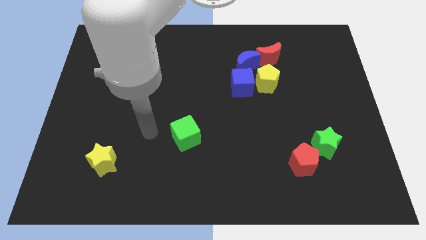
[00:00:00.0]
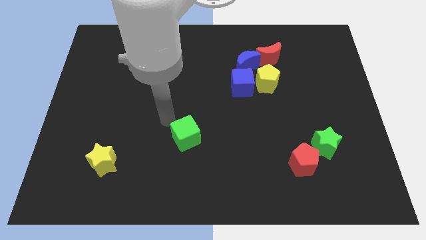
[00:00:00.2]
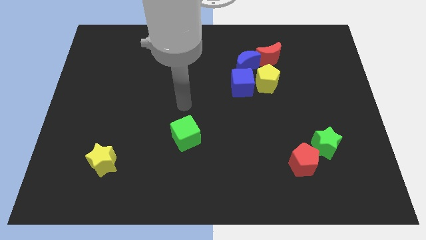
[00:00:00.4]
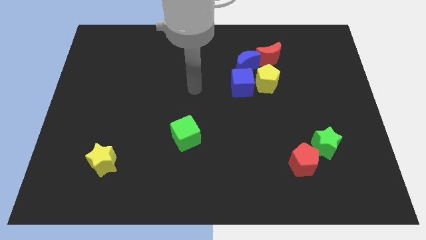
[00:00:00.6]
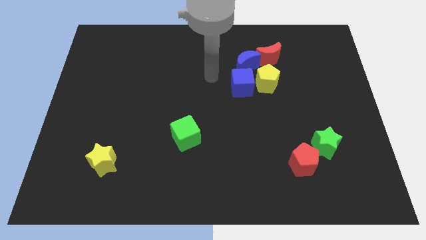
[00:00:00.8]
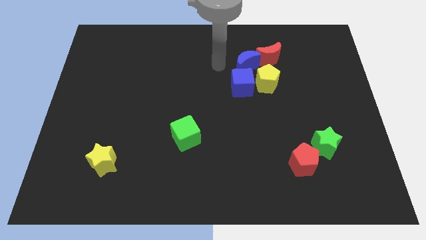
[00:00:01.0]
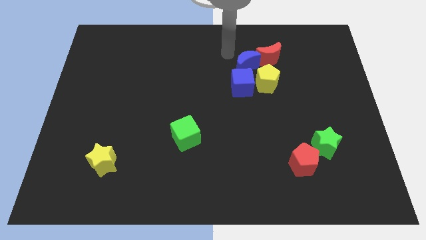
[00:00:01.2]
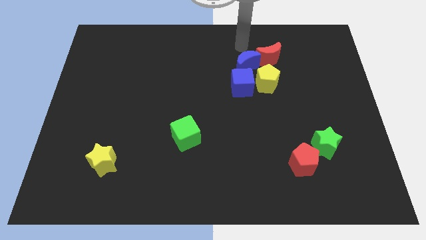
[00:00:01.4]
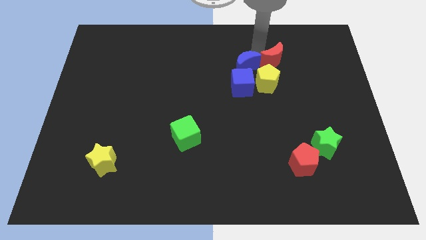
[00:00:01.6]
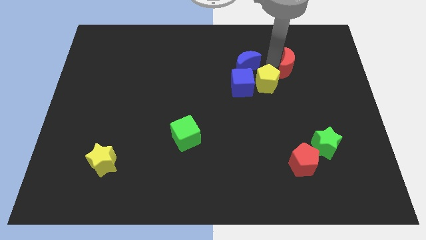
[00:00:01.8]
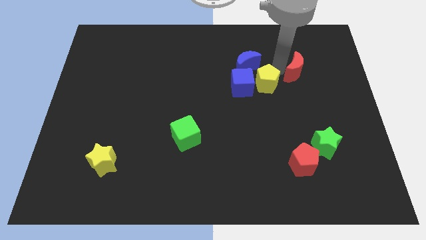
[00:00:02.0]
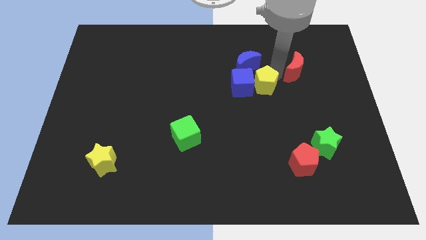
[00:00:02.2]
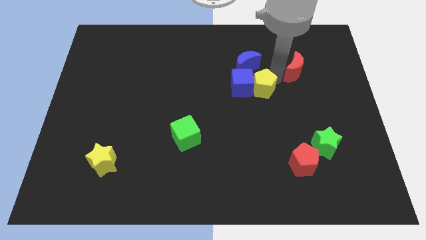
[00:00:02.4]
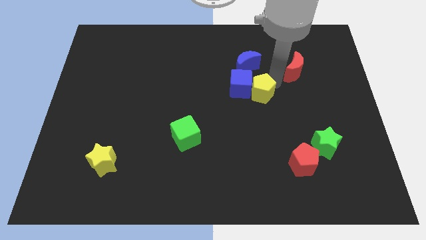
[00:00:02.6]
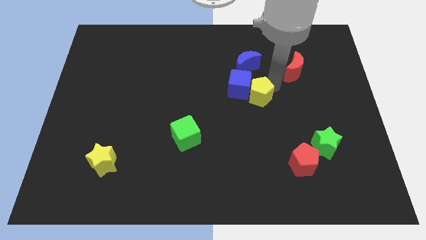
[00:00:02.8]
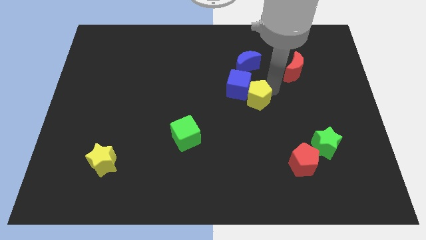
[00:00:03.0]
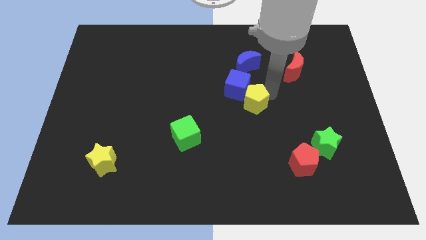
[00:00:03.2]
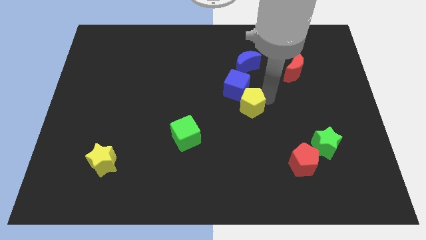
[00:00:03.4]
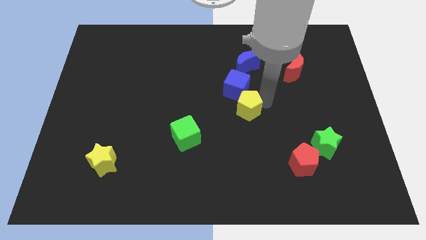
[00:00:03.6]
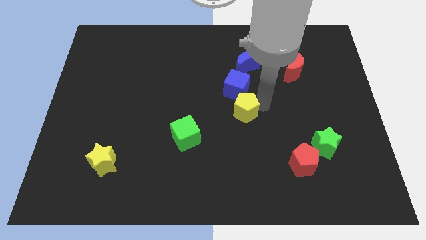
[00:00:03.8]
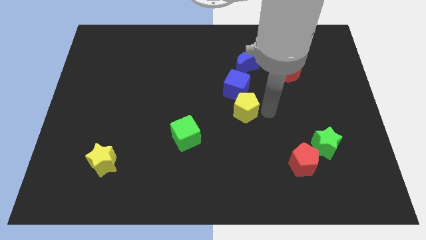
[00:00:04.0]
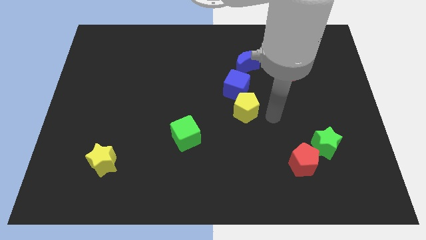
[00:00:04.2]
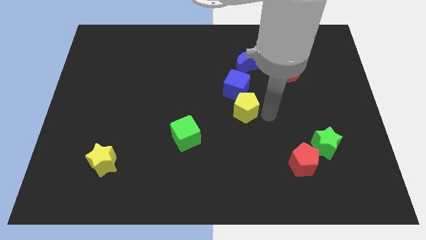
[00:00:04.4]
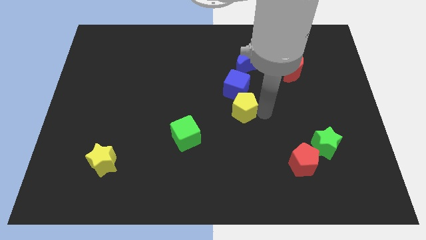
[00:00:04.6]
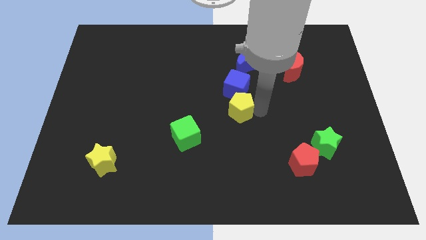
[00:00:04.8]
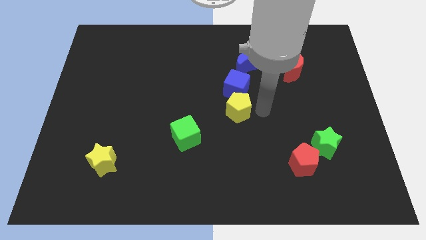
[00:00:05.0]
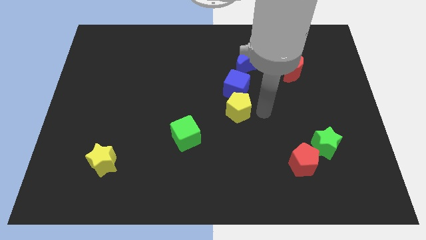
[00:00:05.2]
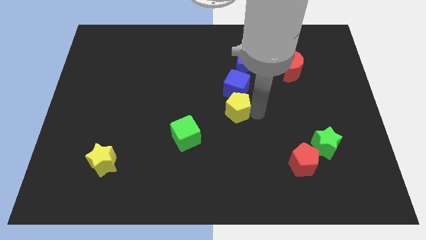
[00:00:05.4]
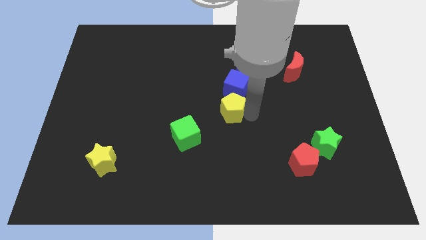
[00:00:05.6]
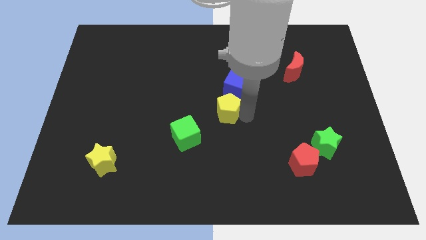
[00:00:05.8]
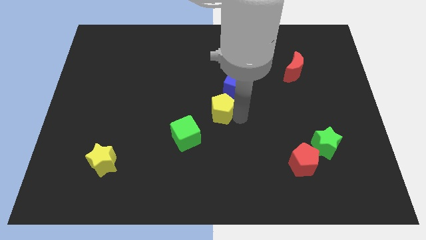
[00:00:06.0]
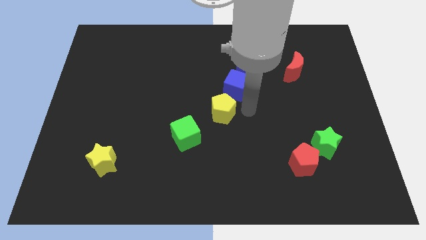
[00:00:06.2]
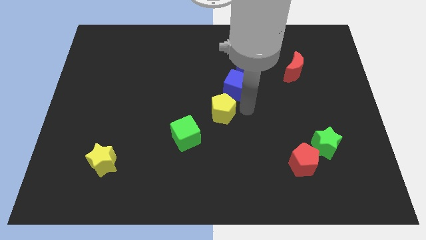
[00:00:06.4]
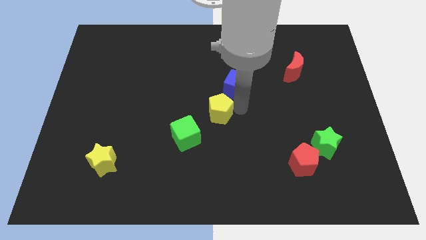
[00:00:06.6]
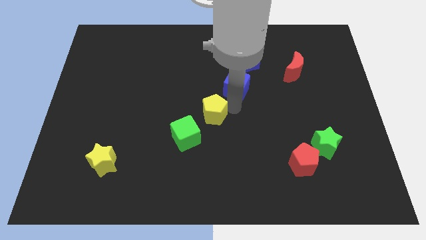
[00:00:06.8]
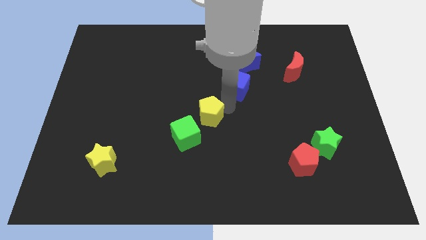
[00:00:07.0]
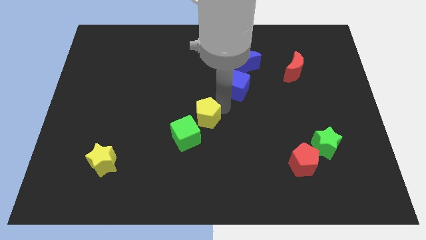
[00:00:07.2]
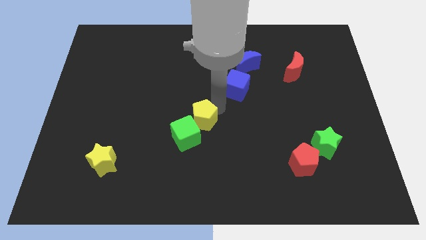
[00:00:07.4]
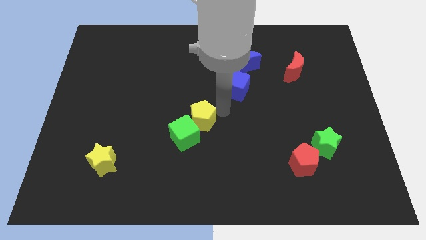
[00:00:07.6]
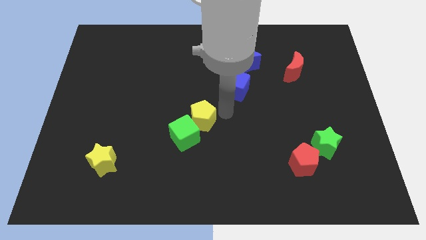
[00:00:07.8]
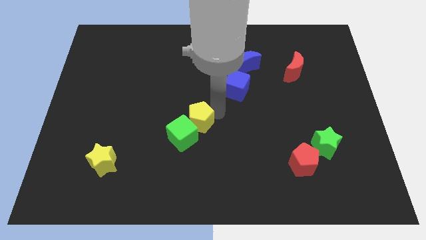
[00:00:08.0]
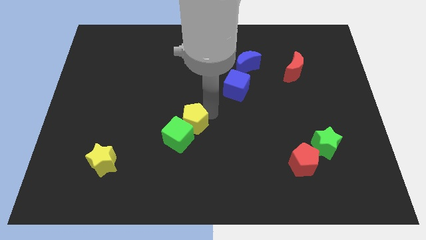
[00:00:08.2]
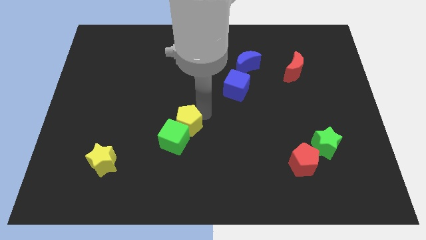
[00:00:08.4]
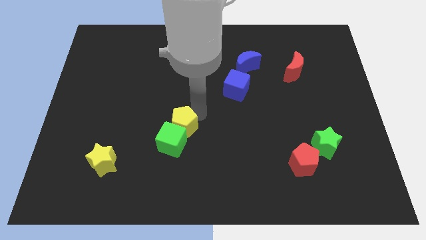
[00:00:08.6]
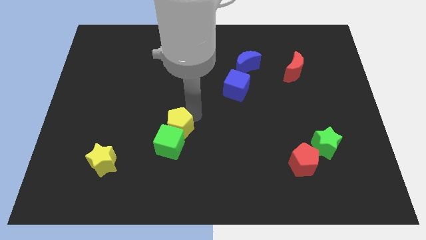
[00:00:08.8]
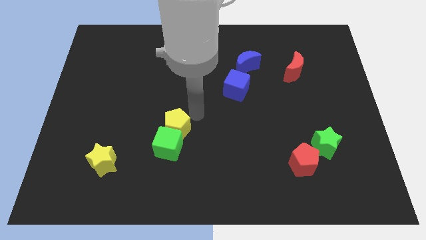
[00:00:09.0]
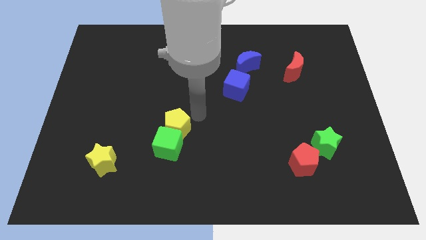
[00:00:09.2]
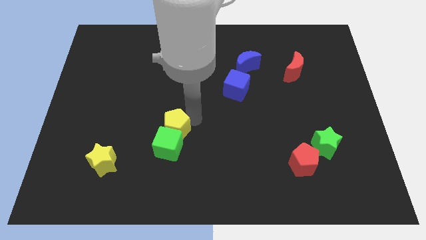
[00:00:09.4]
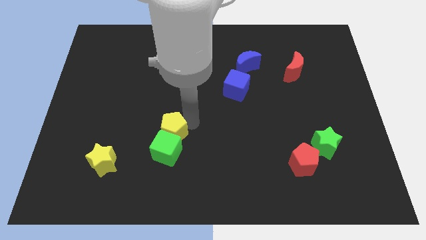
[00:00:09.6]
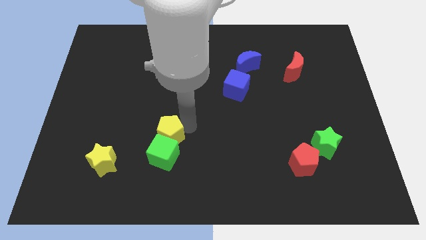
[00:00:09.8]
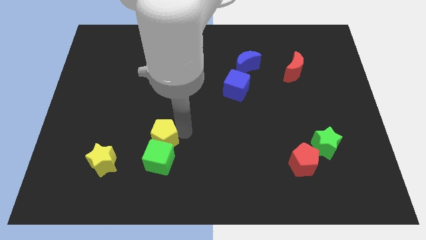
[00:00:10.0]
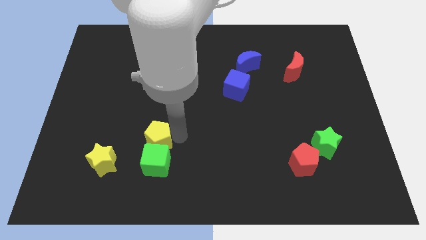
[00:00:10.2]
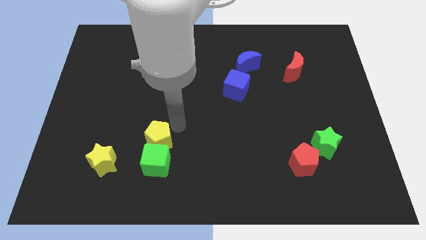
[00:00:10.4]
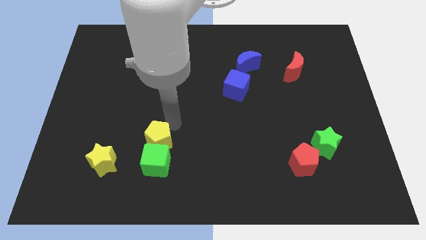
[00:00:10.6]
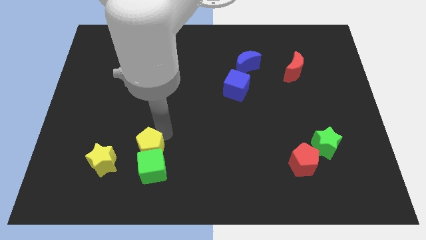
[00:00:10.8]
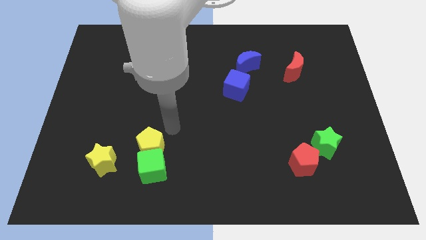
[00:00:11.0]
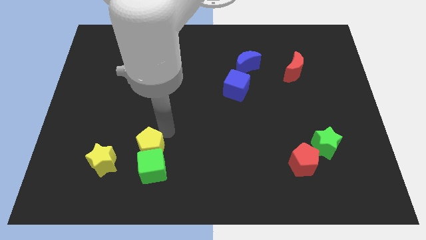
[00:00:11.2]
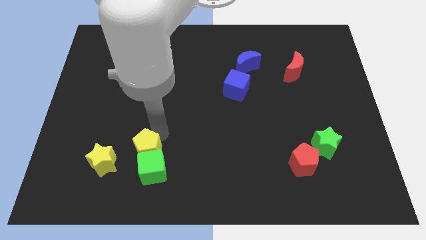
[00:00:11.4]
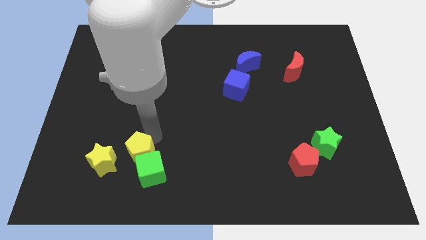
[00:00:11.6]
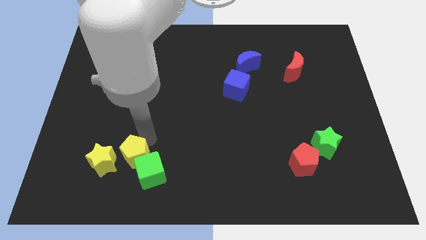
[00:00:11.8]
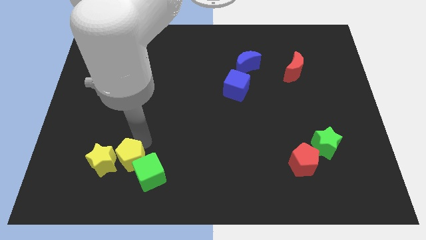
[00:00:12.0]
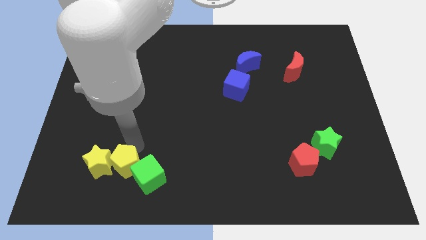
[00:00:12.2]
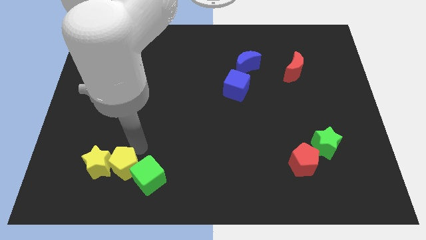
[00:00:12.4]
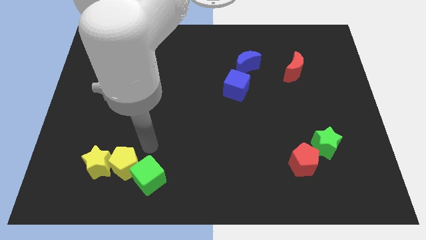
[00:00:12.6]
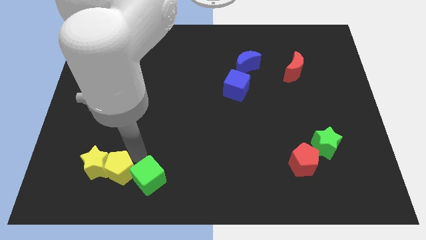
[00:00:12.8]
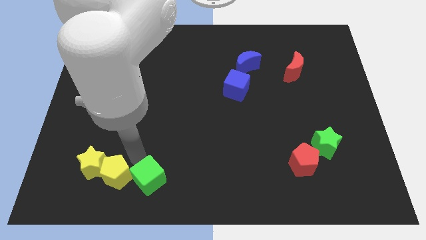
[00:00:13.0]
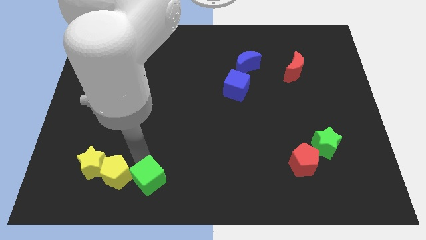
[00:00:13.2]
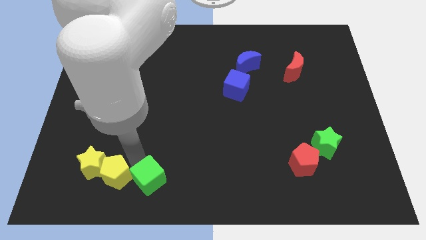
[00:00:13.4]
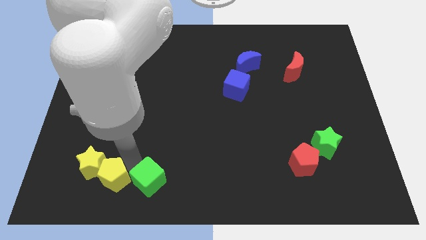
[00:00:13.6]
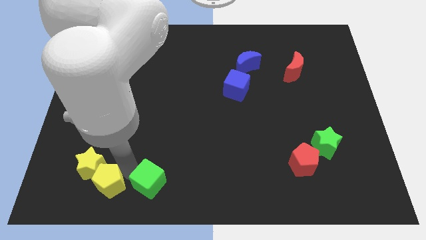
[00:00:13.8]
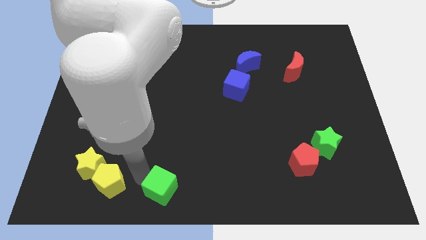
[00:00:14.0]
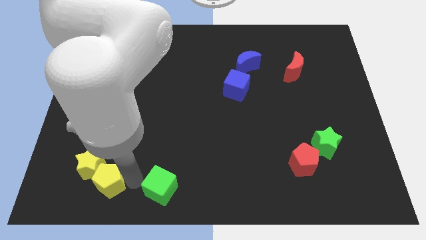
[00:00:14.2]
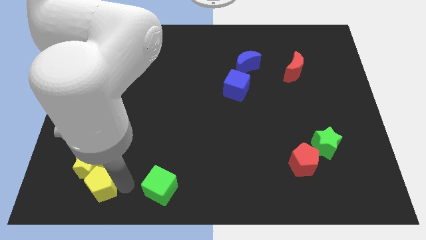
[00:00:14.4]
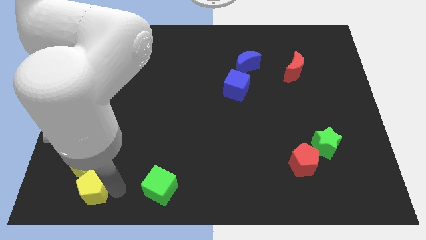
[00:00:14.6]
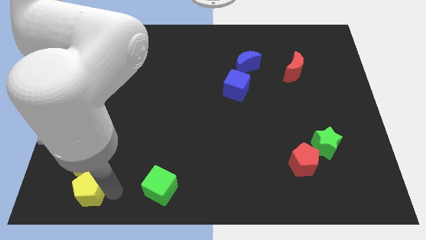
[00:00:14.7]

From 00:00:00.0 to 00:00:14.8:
put the yellow pentagon to the bottom left side of the yellow star
